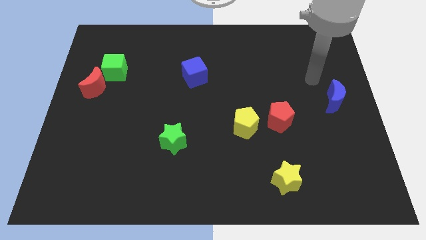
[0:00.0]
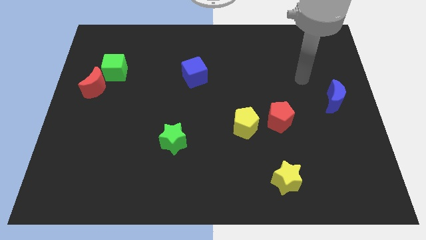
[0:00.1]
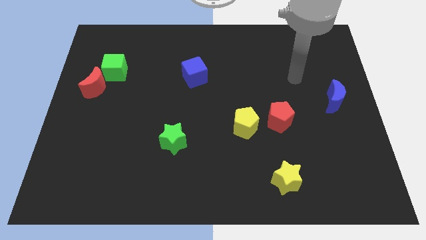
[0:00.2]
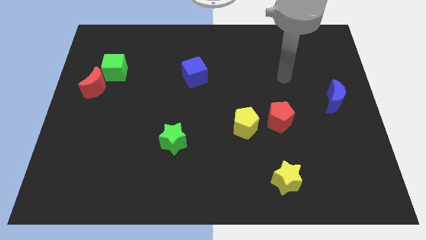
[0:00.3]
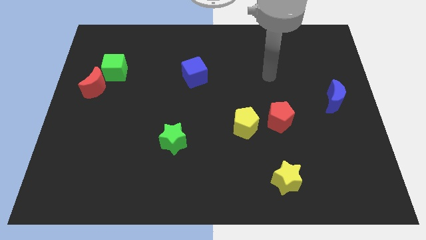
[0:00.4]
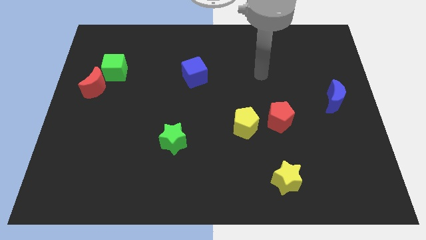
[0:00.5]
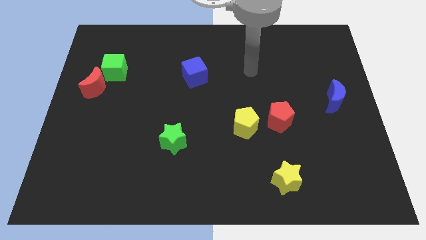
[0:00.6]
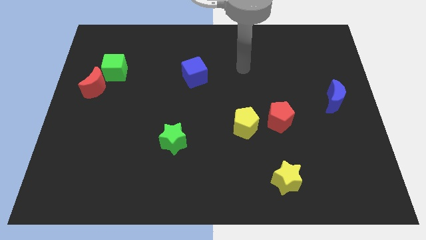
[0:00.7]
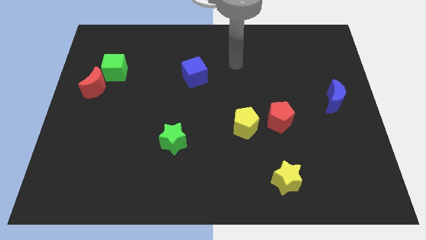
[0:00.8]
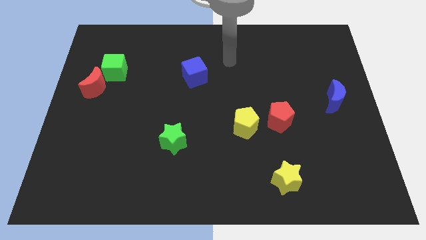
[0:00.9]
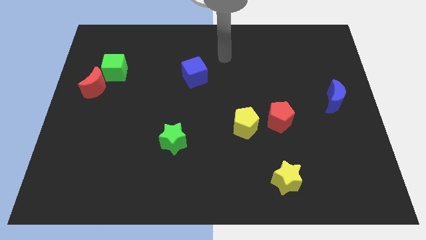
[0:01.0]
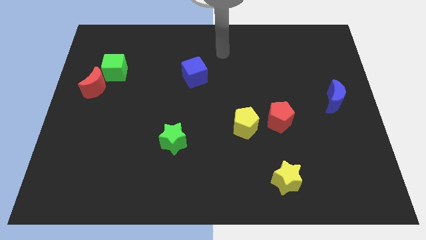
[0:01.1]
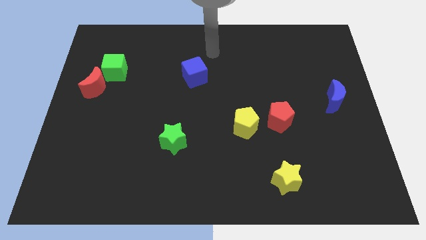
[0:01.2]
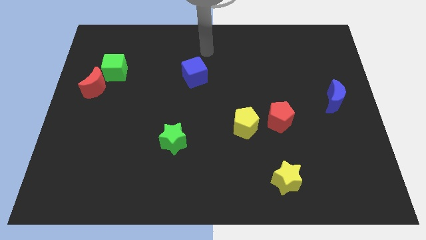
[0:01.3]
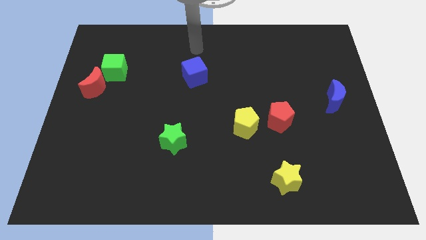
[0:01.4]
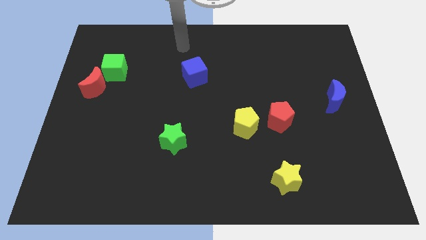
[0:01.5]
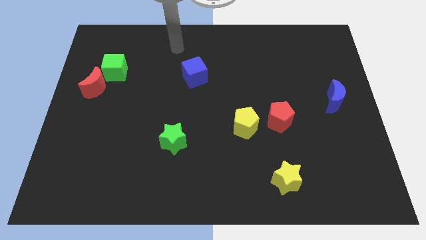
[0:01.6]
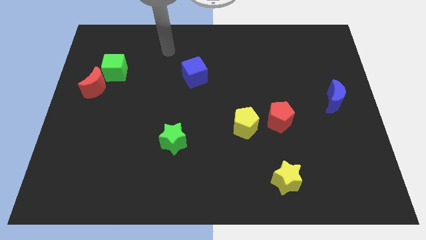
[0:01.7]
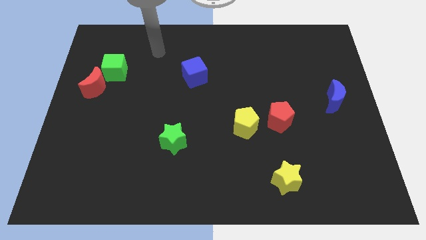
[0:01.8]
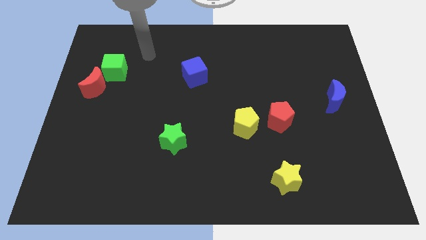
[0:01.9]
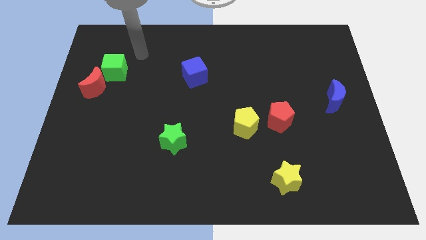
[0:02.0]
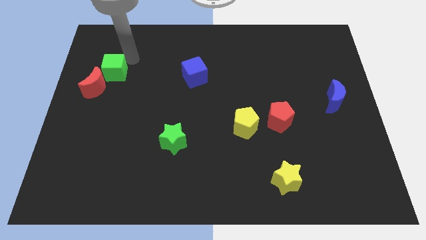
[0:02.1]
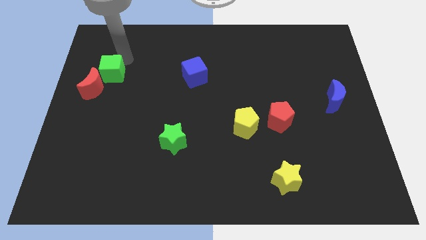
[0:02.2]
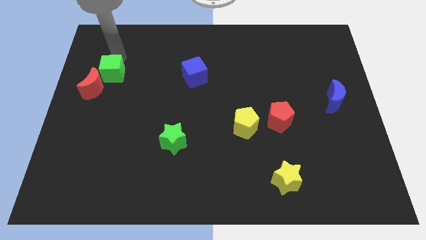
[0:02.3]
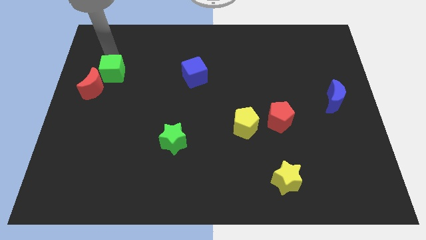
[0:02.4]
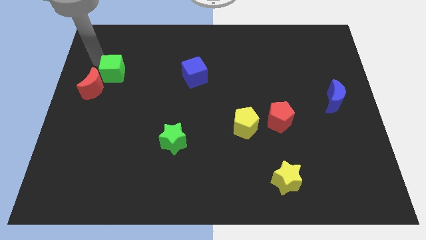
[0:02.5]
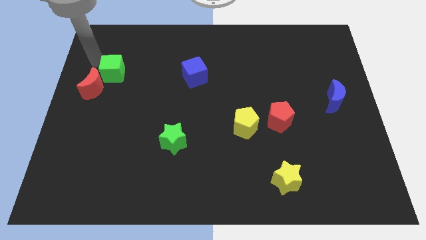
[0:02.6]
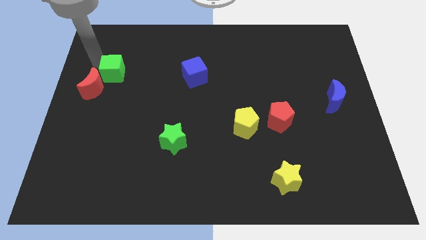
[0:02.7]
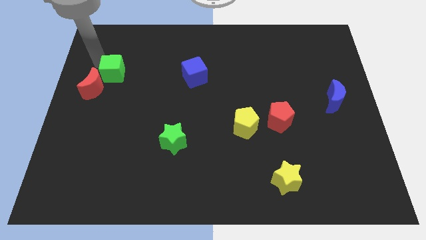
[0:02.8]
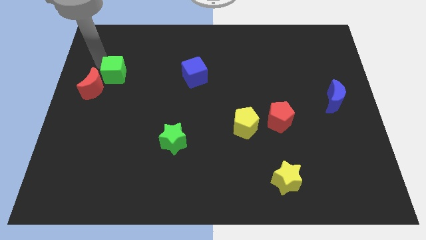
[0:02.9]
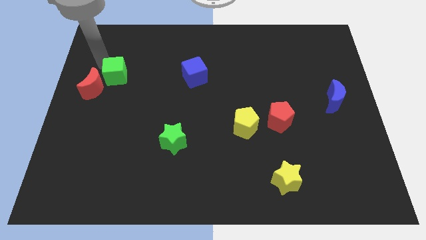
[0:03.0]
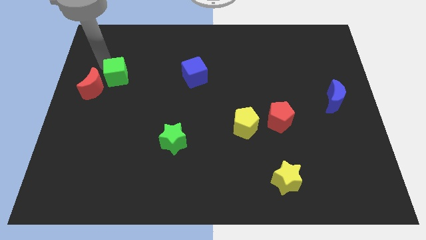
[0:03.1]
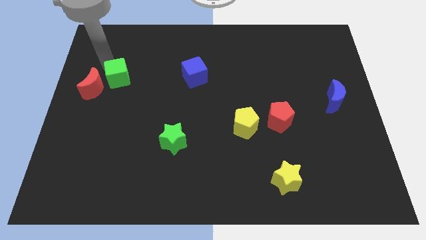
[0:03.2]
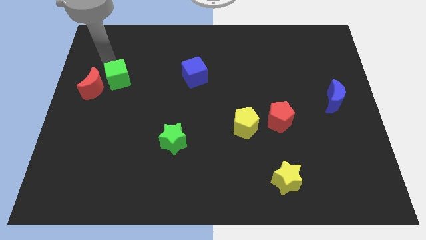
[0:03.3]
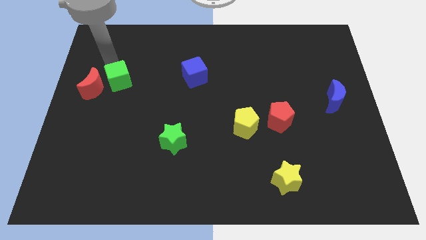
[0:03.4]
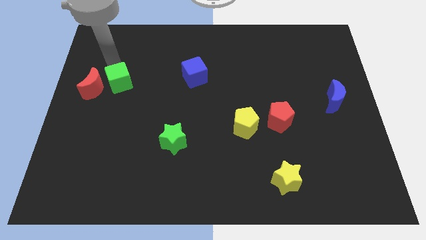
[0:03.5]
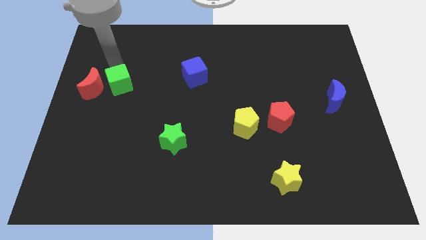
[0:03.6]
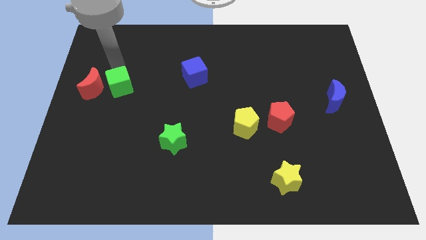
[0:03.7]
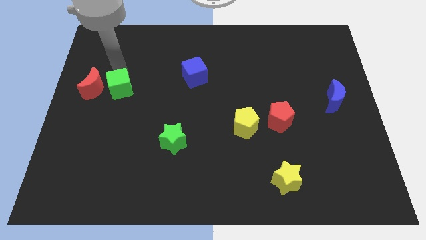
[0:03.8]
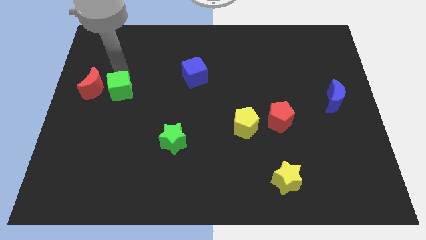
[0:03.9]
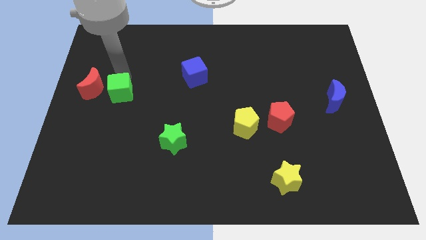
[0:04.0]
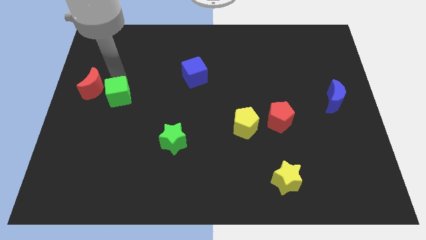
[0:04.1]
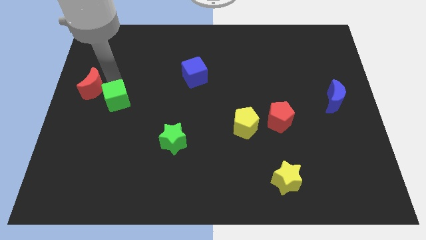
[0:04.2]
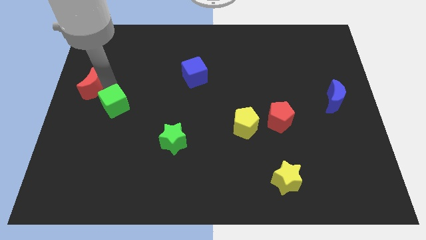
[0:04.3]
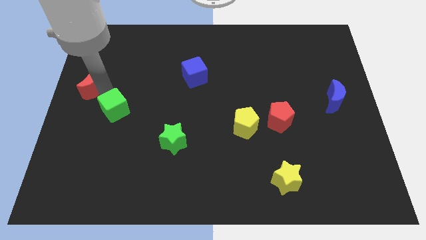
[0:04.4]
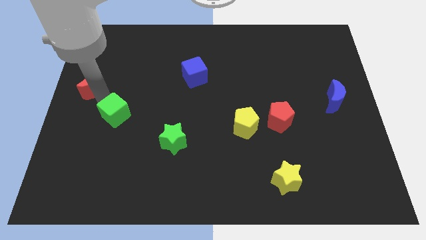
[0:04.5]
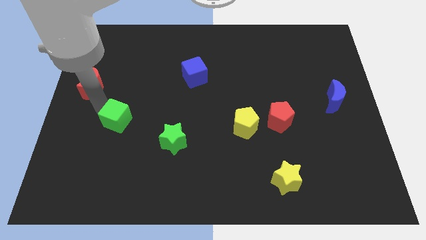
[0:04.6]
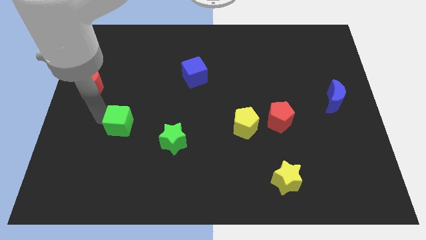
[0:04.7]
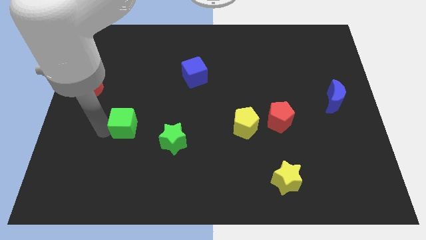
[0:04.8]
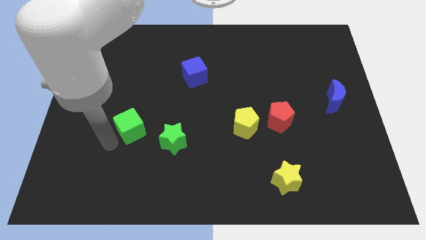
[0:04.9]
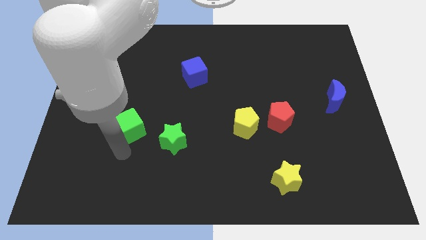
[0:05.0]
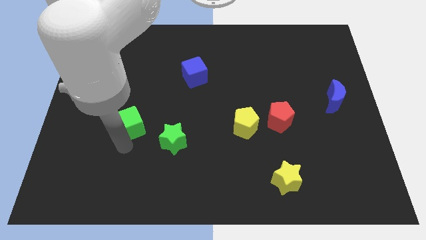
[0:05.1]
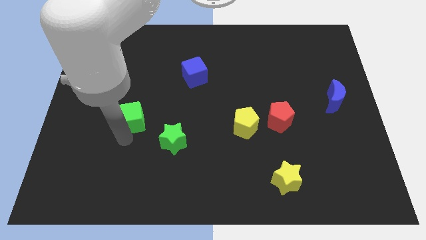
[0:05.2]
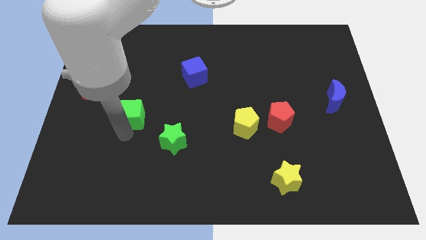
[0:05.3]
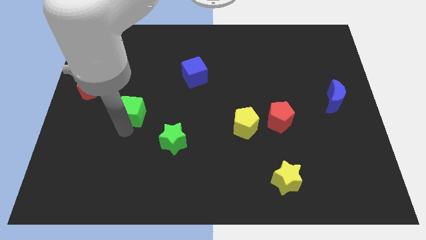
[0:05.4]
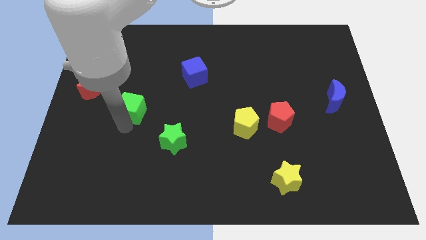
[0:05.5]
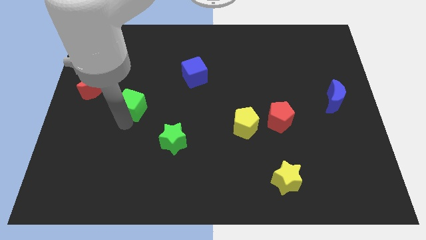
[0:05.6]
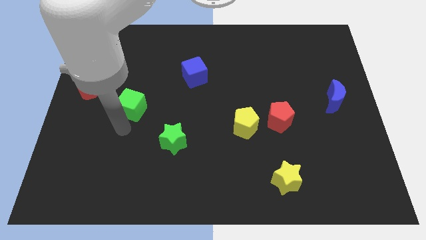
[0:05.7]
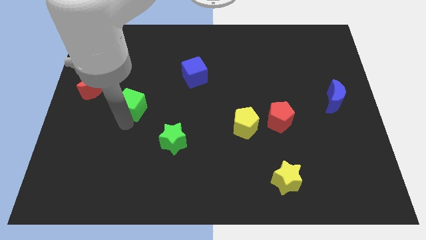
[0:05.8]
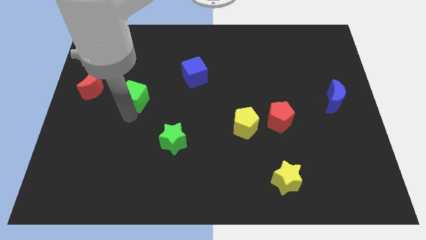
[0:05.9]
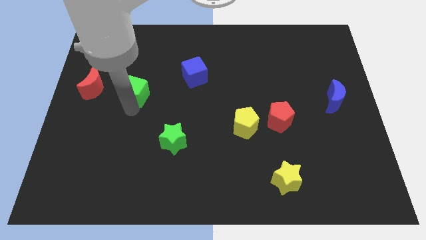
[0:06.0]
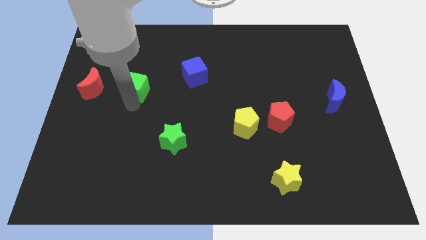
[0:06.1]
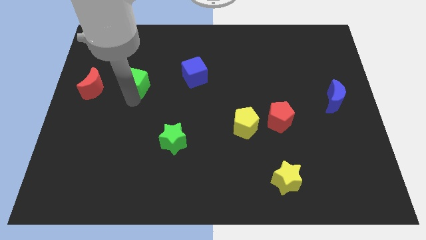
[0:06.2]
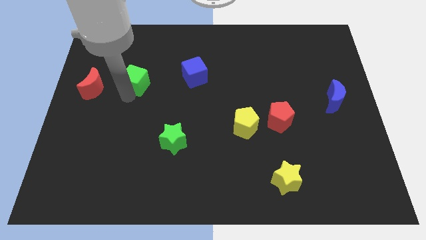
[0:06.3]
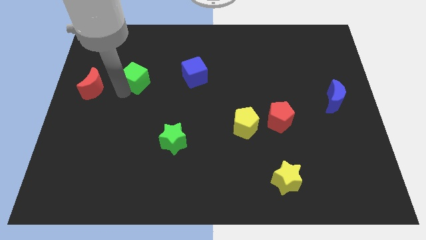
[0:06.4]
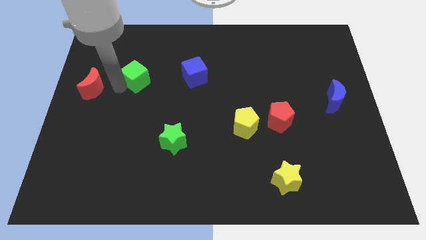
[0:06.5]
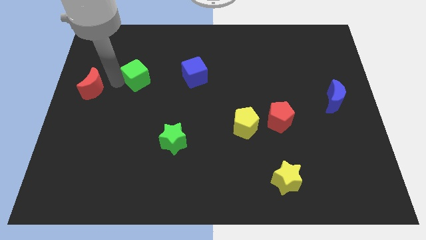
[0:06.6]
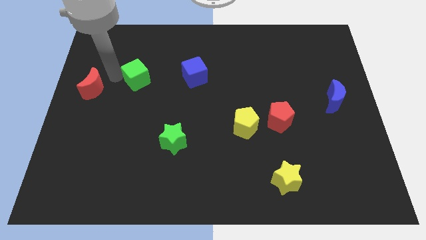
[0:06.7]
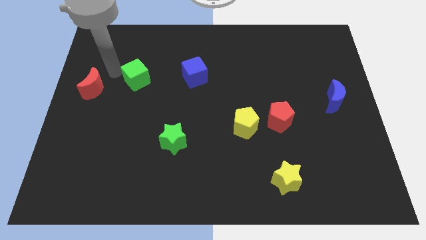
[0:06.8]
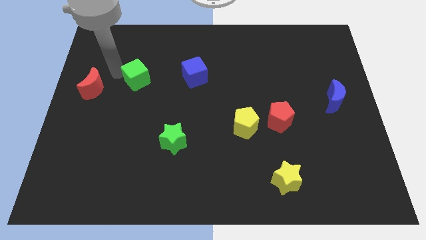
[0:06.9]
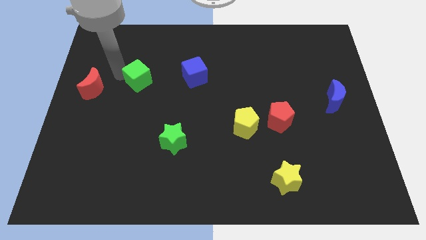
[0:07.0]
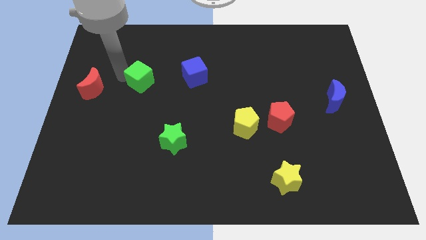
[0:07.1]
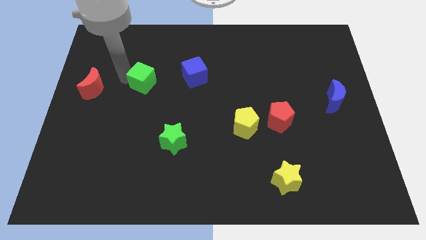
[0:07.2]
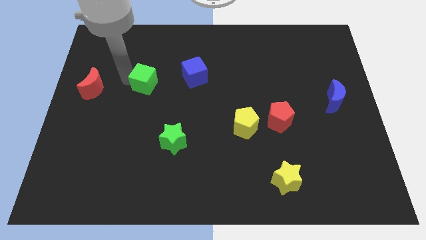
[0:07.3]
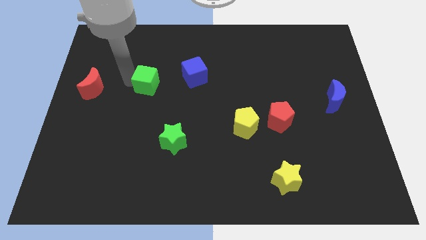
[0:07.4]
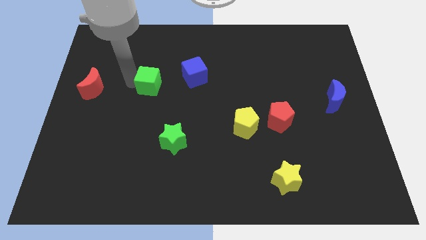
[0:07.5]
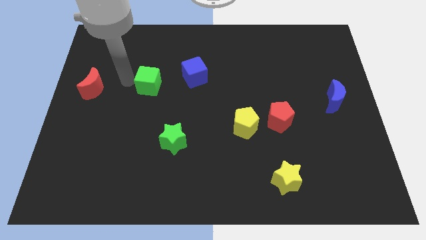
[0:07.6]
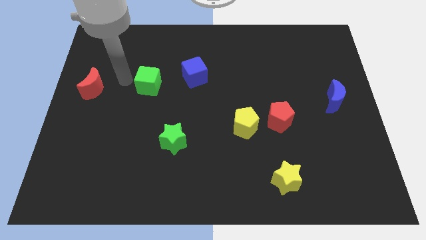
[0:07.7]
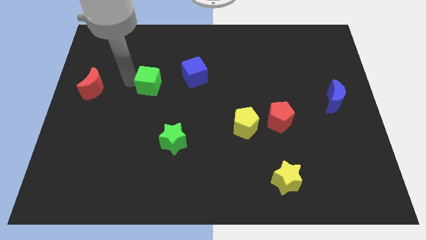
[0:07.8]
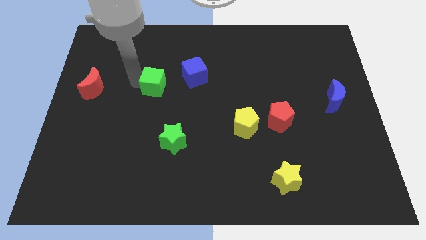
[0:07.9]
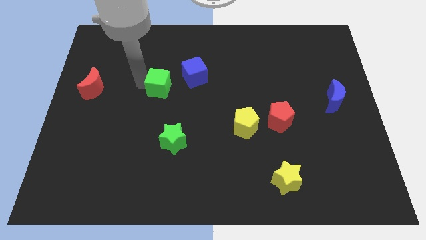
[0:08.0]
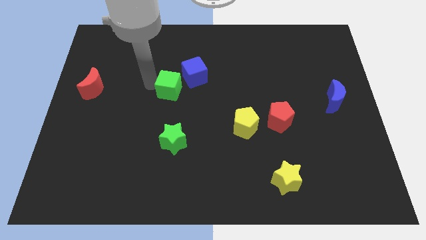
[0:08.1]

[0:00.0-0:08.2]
push the green cube to the middle
